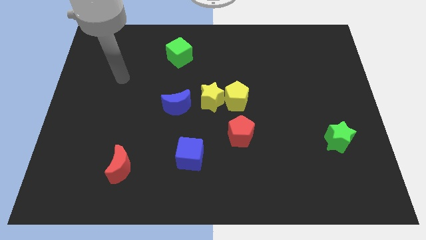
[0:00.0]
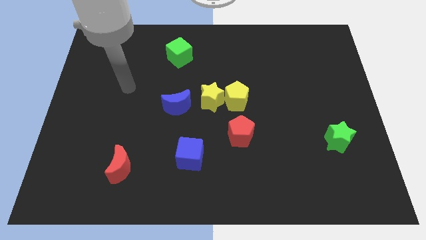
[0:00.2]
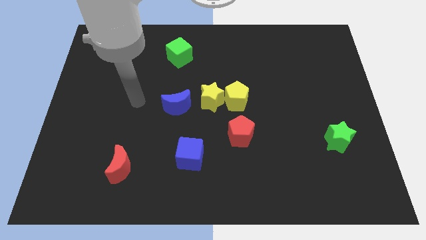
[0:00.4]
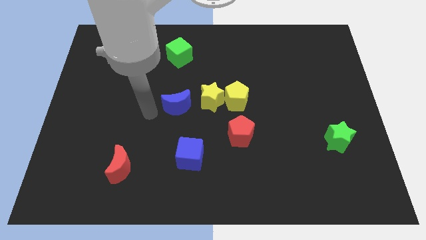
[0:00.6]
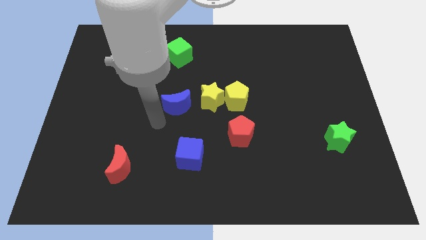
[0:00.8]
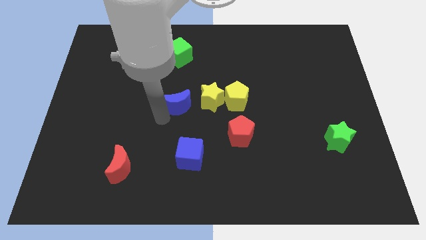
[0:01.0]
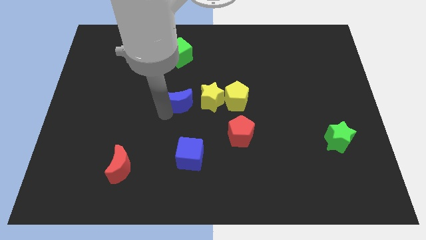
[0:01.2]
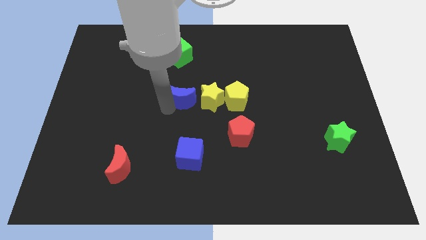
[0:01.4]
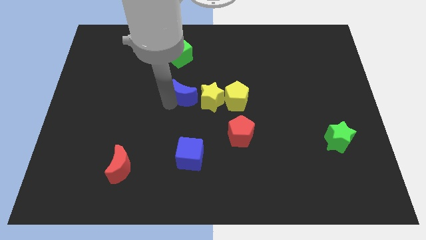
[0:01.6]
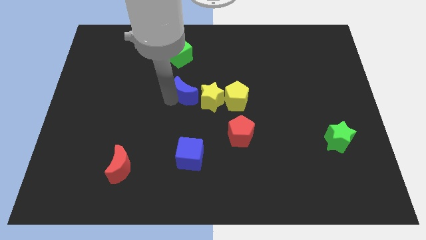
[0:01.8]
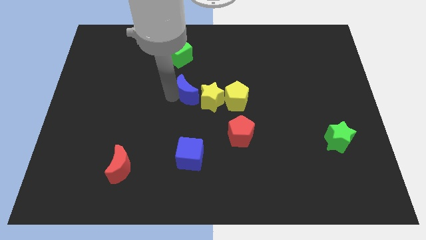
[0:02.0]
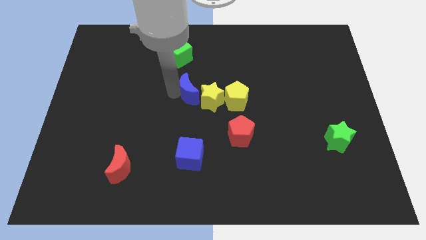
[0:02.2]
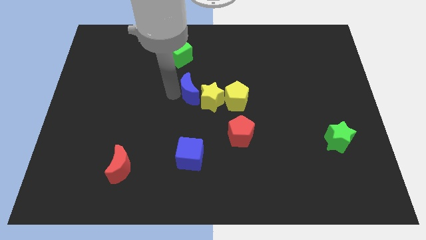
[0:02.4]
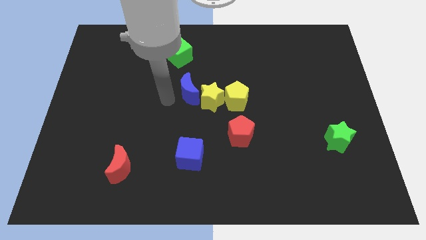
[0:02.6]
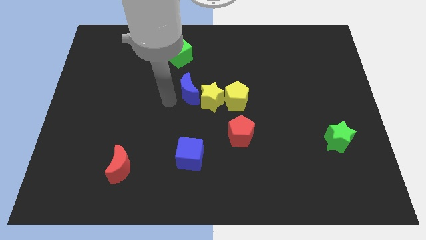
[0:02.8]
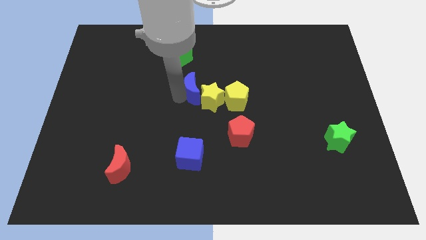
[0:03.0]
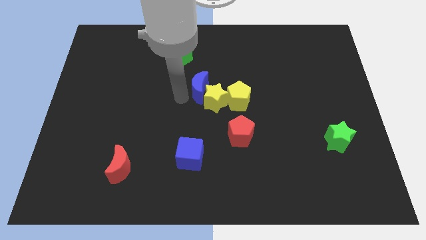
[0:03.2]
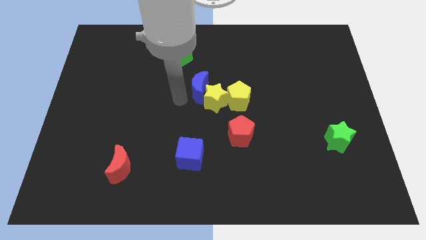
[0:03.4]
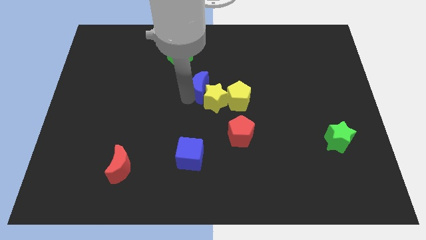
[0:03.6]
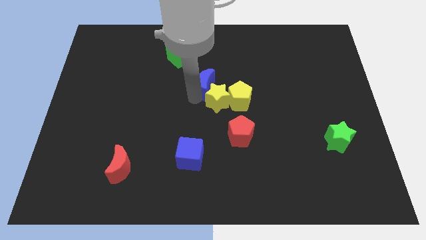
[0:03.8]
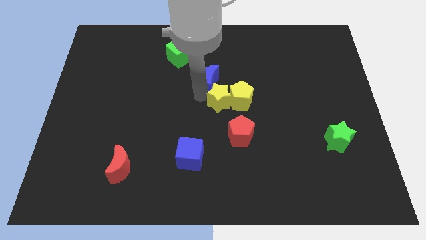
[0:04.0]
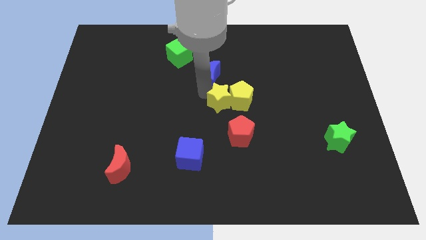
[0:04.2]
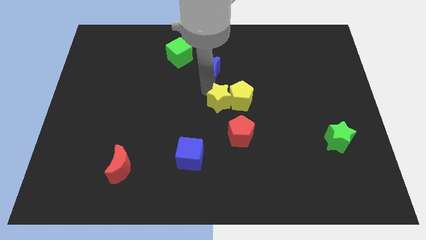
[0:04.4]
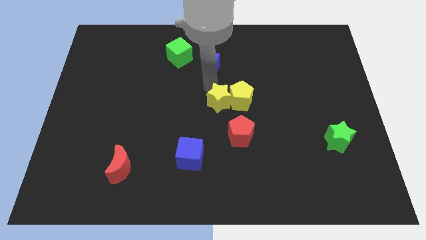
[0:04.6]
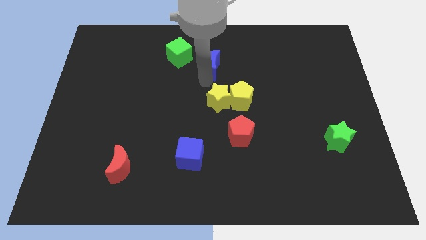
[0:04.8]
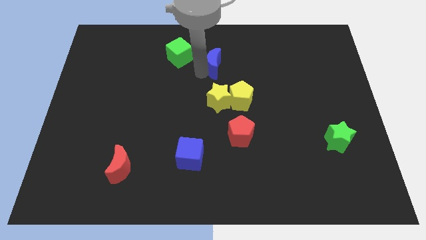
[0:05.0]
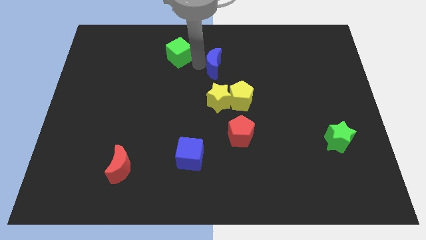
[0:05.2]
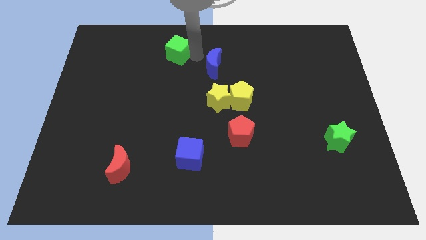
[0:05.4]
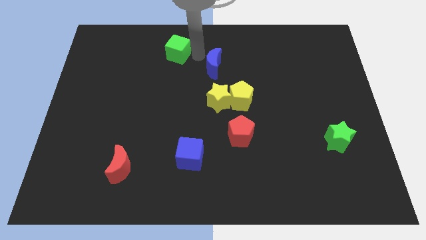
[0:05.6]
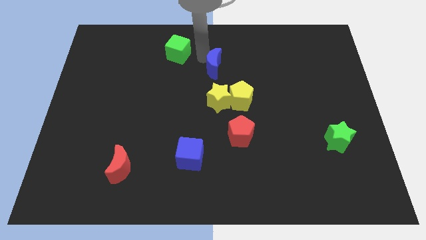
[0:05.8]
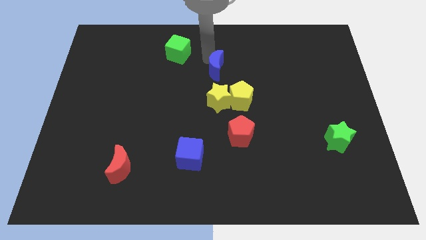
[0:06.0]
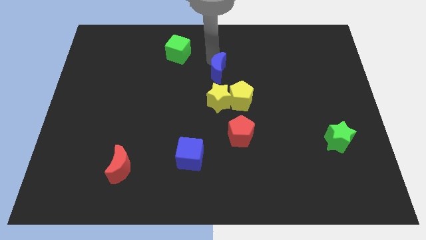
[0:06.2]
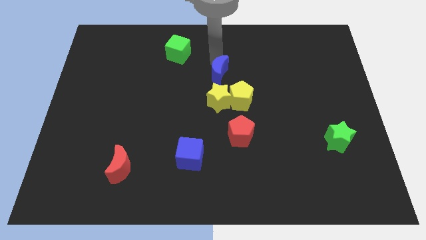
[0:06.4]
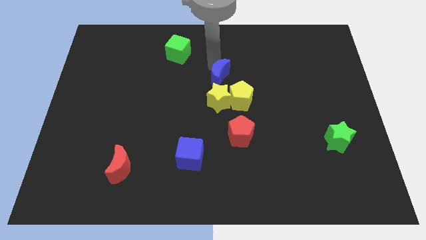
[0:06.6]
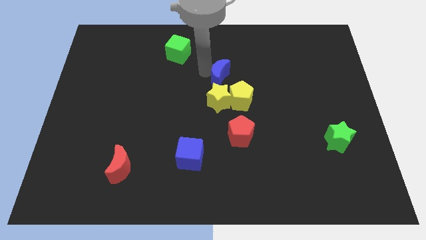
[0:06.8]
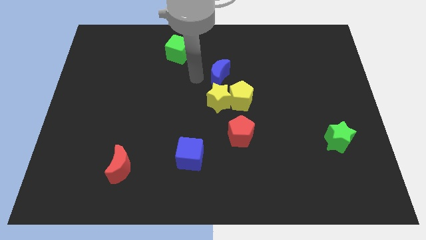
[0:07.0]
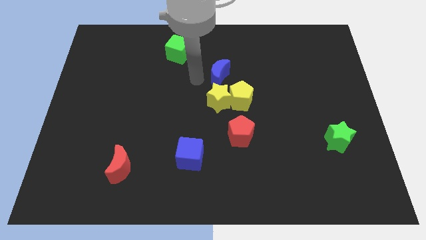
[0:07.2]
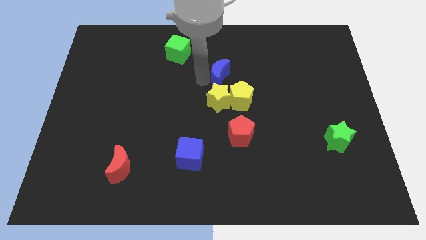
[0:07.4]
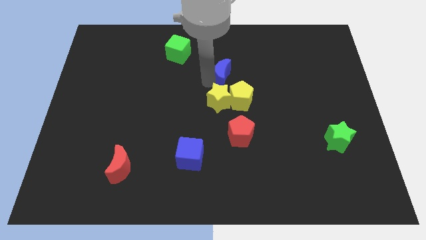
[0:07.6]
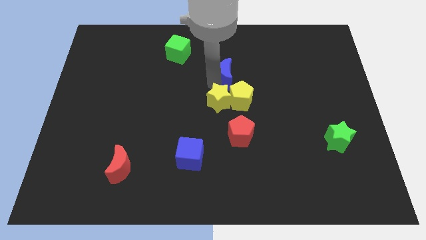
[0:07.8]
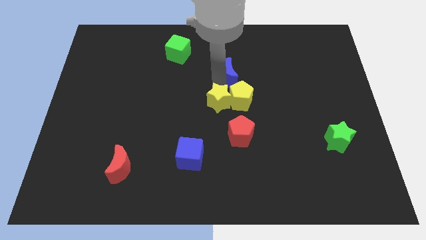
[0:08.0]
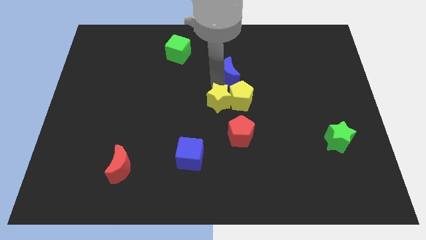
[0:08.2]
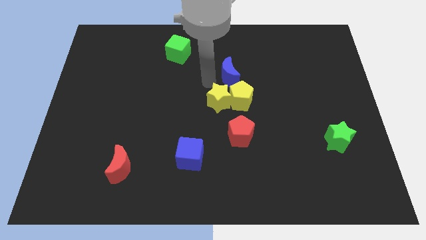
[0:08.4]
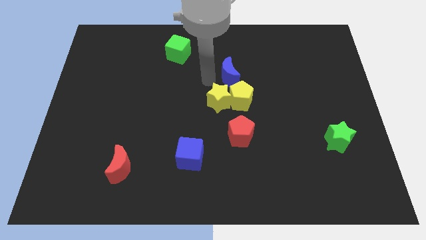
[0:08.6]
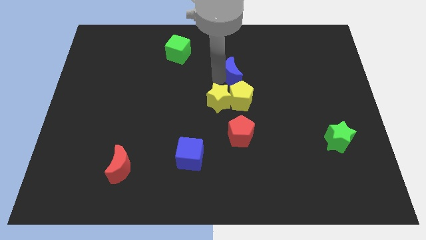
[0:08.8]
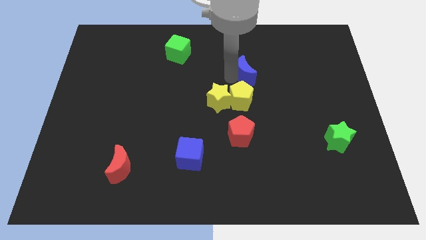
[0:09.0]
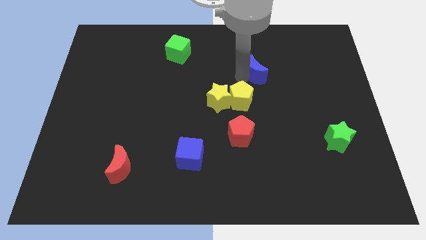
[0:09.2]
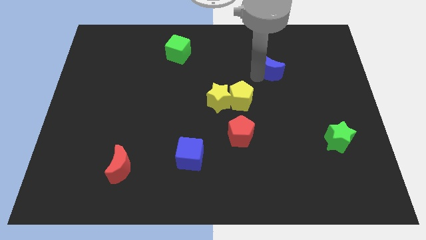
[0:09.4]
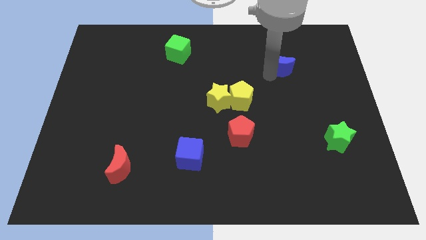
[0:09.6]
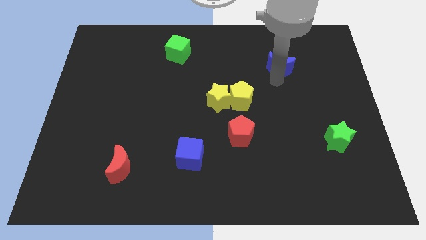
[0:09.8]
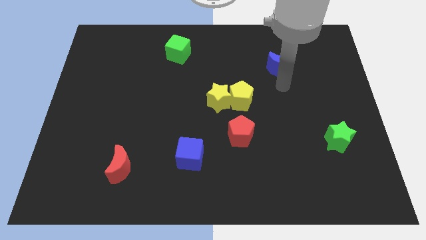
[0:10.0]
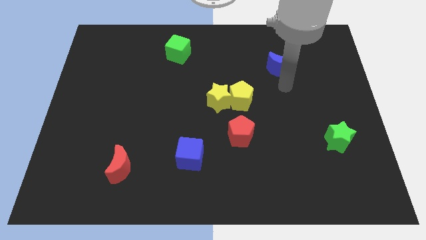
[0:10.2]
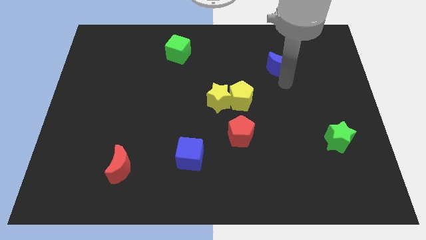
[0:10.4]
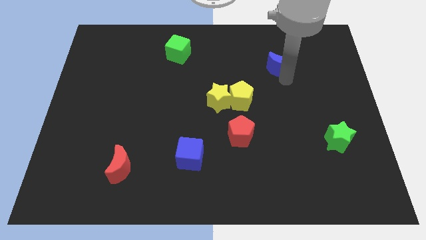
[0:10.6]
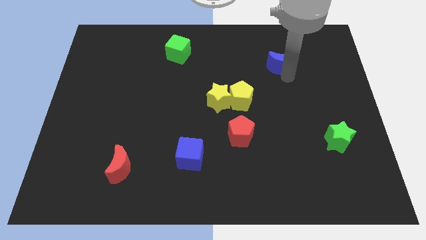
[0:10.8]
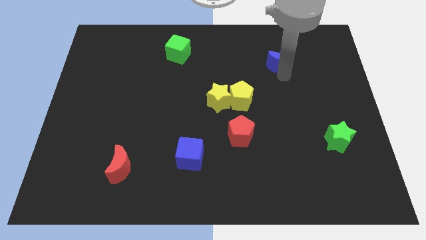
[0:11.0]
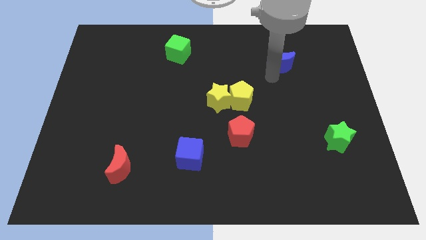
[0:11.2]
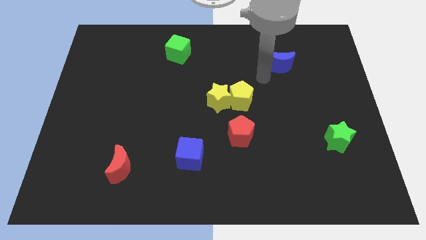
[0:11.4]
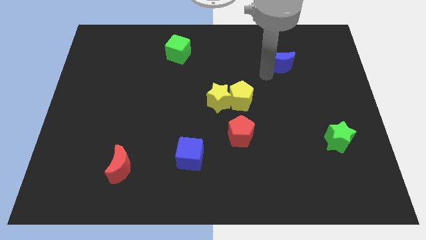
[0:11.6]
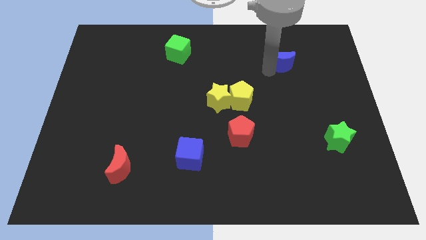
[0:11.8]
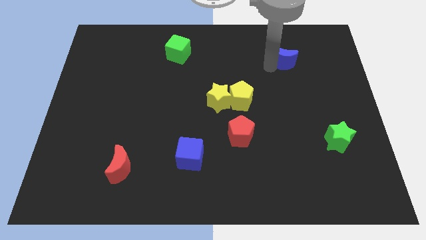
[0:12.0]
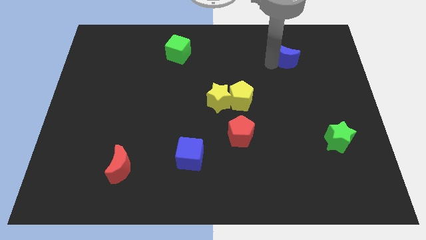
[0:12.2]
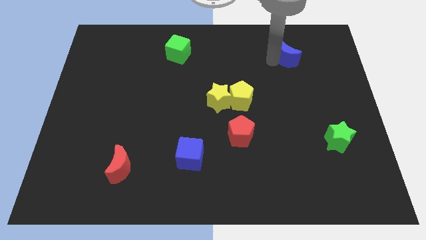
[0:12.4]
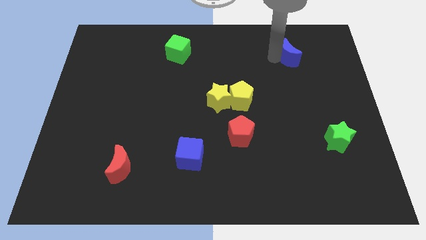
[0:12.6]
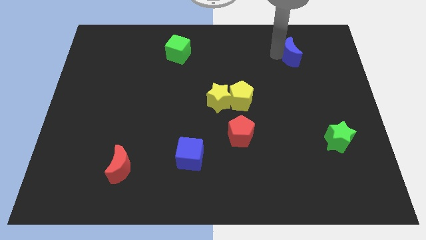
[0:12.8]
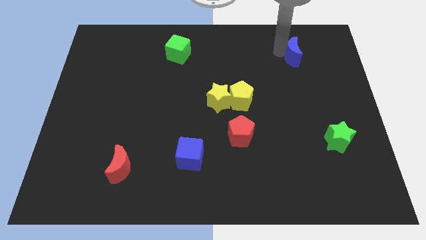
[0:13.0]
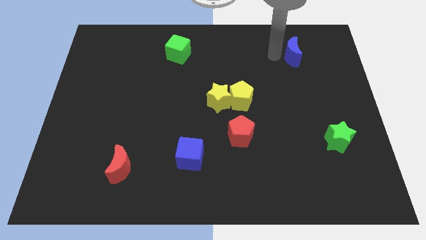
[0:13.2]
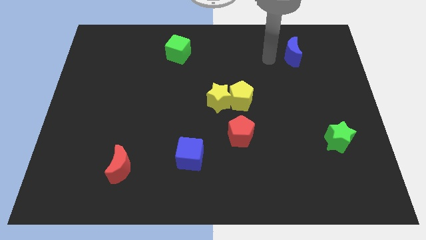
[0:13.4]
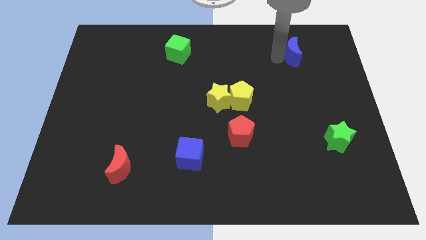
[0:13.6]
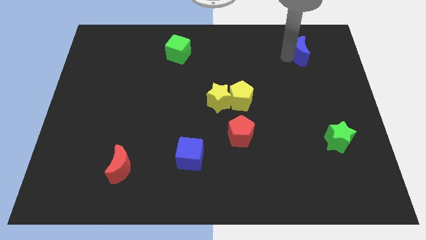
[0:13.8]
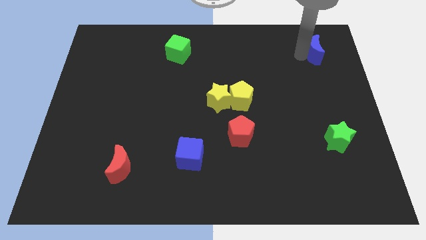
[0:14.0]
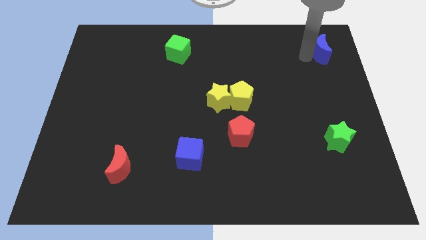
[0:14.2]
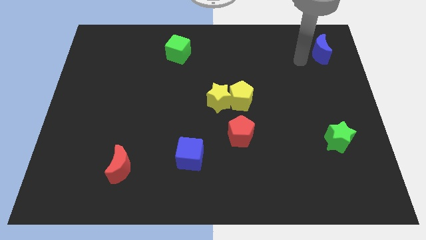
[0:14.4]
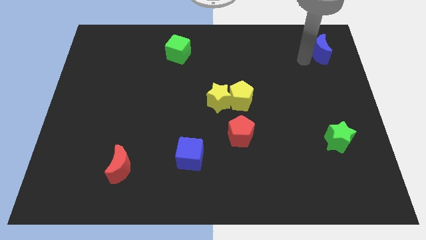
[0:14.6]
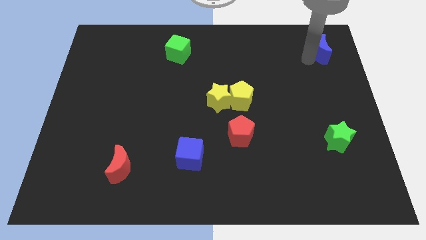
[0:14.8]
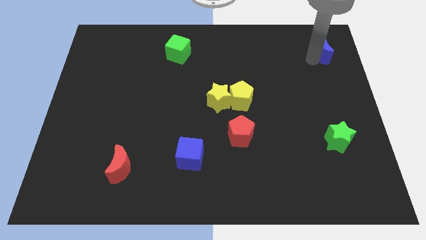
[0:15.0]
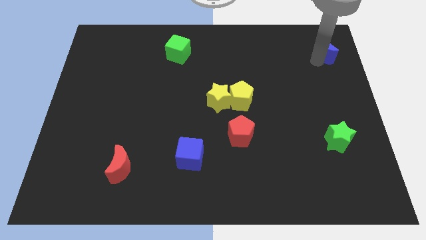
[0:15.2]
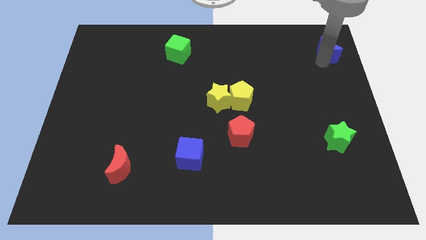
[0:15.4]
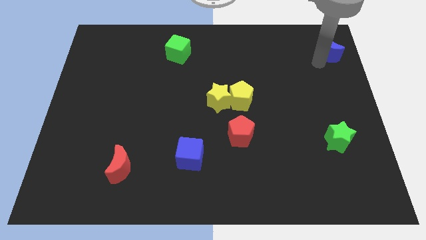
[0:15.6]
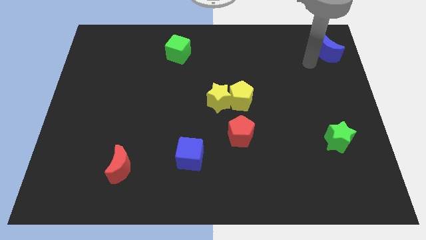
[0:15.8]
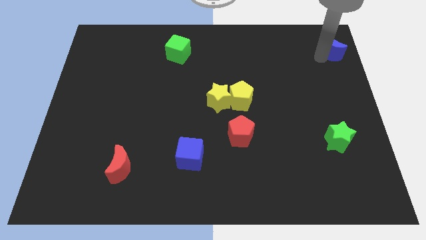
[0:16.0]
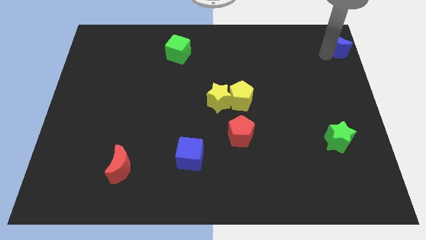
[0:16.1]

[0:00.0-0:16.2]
slide the blue moon to the upper right corner
